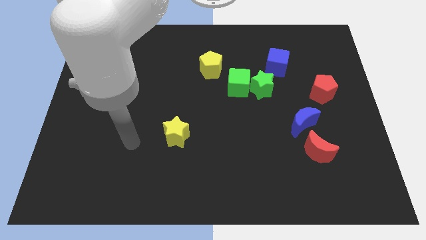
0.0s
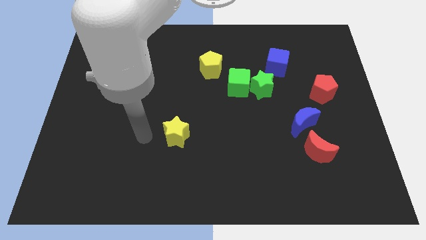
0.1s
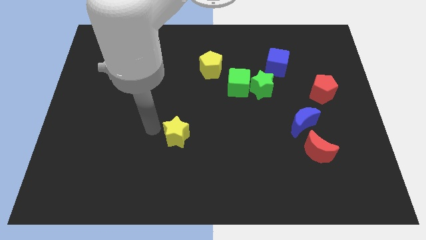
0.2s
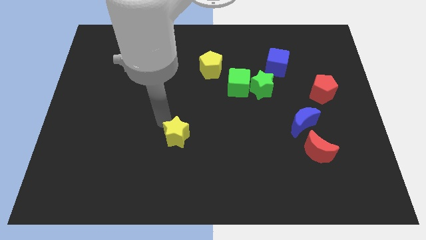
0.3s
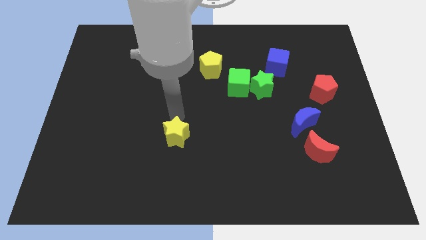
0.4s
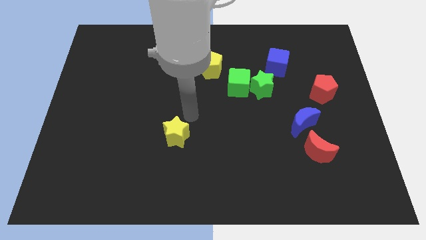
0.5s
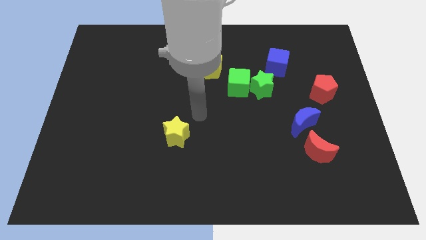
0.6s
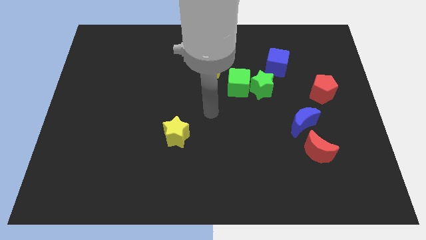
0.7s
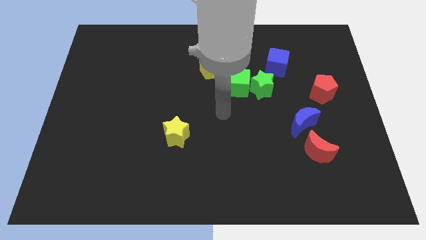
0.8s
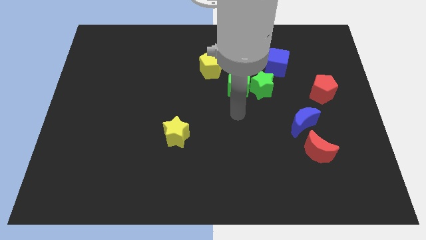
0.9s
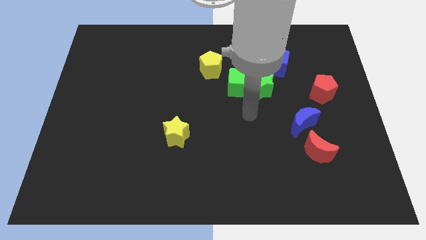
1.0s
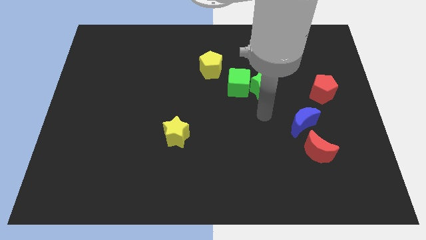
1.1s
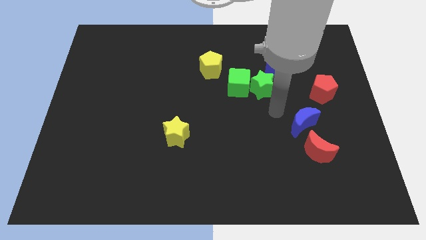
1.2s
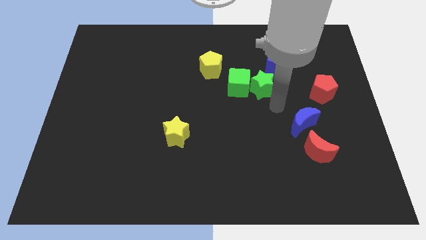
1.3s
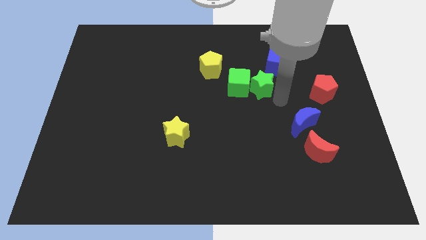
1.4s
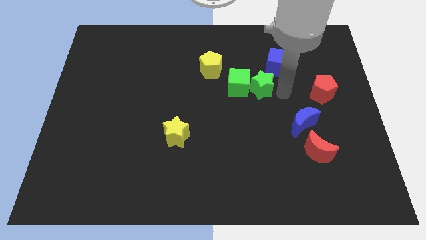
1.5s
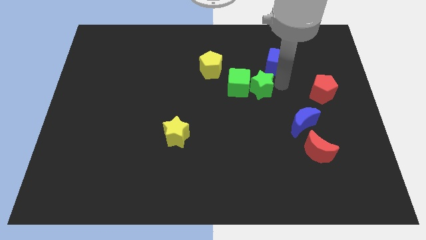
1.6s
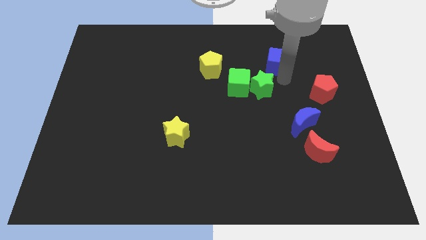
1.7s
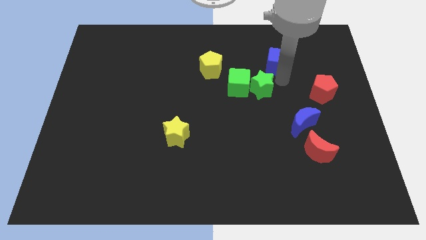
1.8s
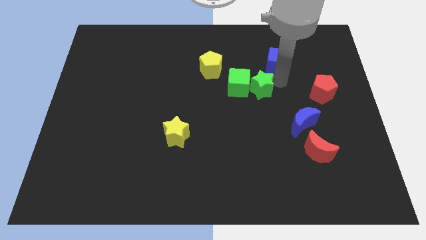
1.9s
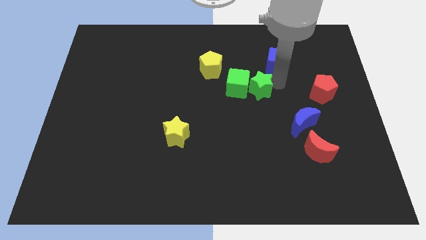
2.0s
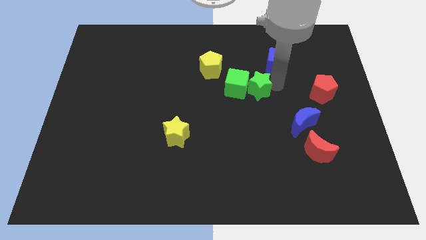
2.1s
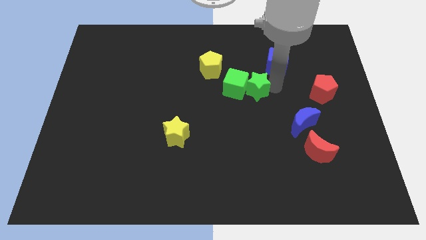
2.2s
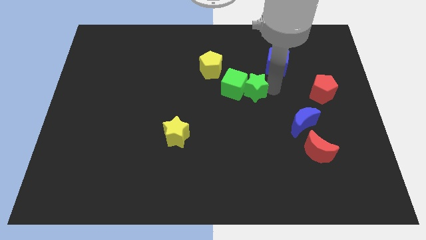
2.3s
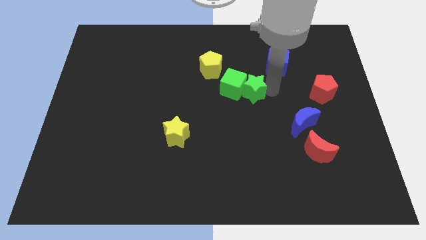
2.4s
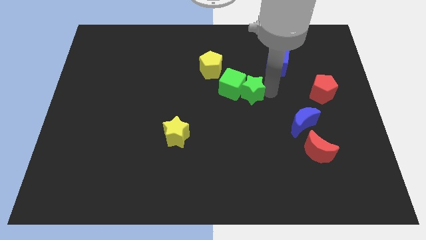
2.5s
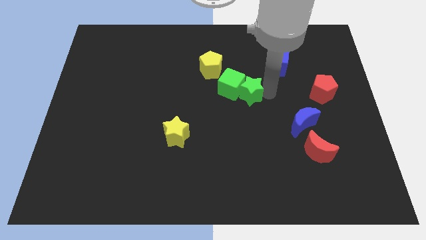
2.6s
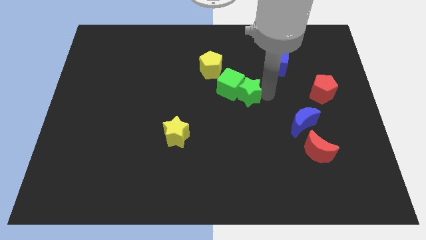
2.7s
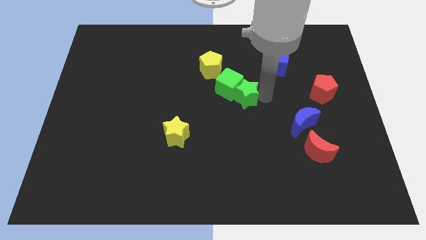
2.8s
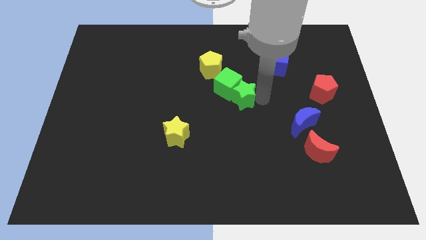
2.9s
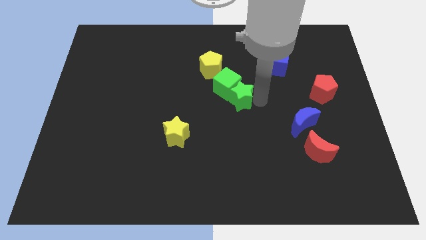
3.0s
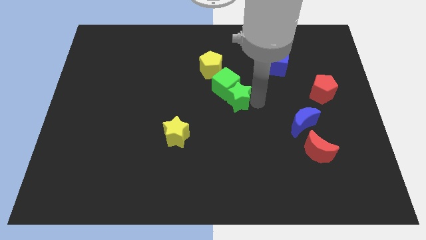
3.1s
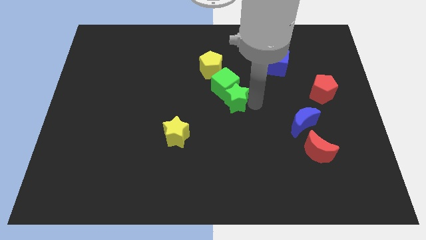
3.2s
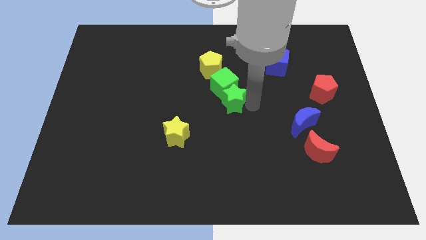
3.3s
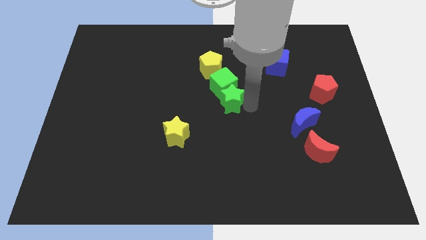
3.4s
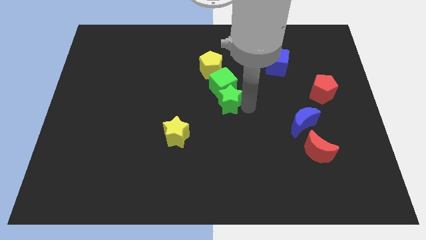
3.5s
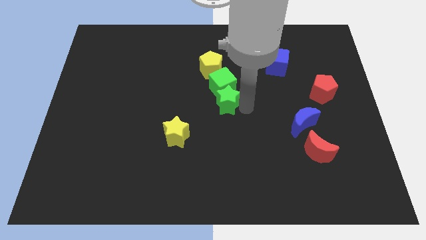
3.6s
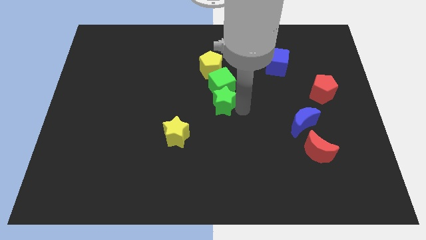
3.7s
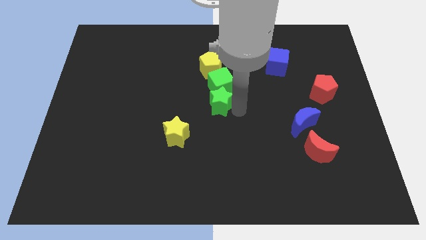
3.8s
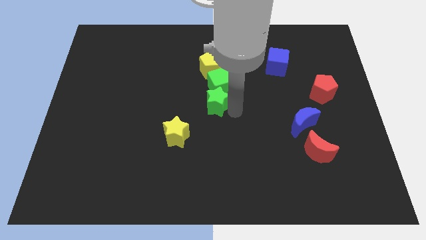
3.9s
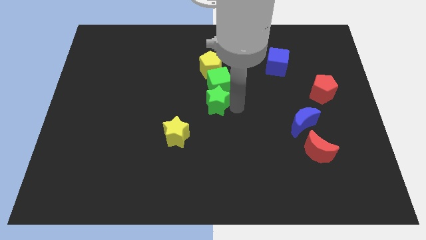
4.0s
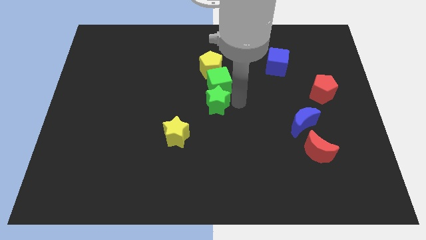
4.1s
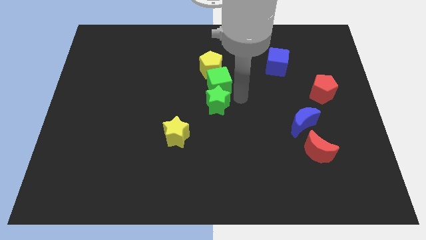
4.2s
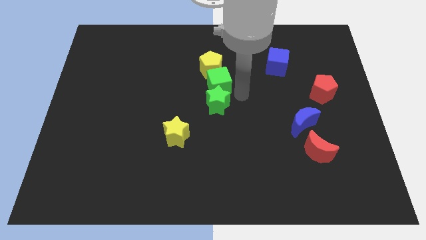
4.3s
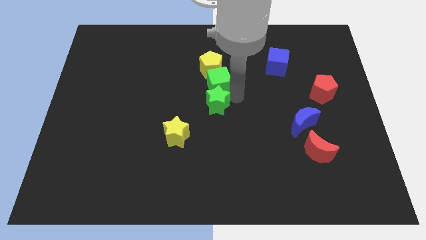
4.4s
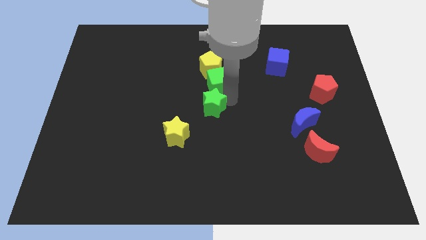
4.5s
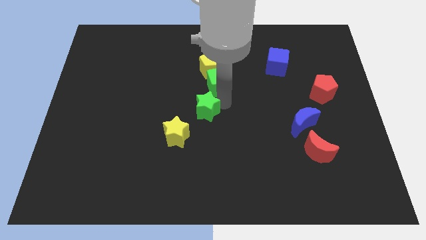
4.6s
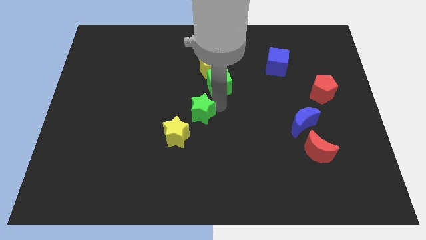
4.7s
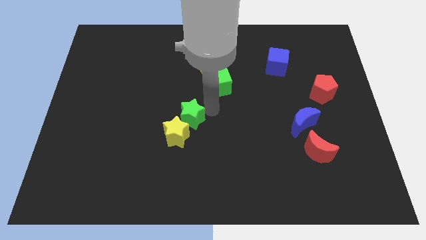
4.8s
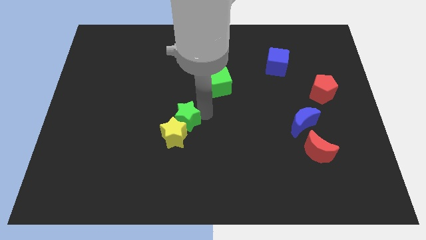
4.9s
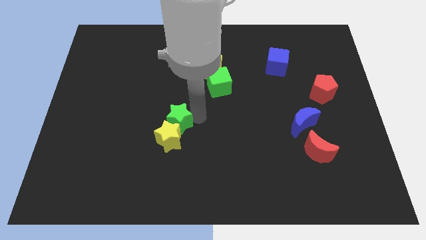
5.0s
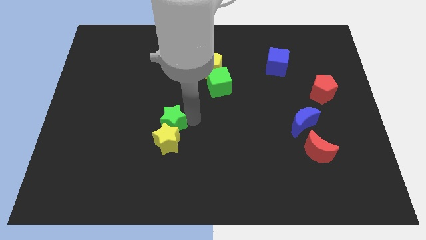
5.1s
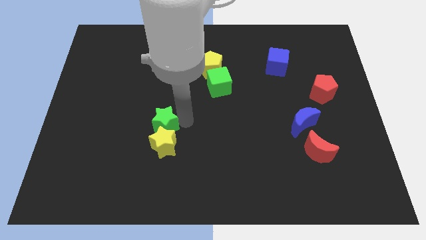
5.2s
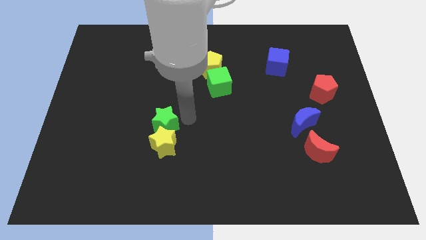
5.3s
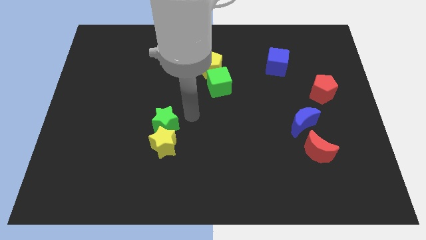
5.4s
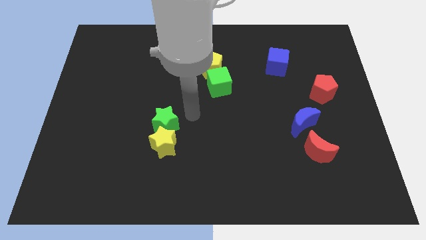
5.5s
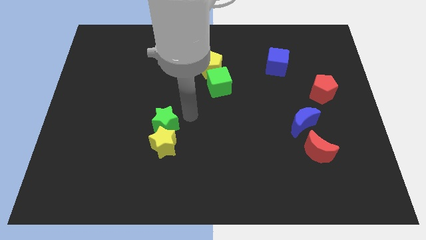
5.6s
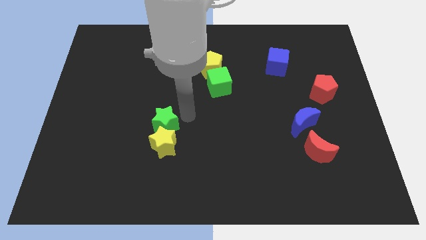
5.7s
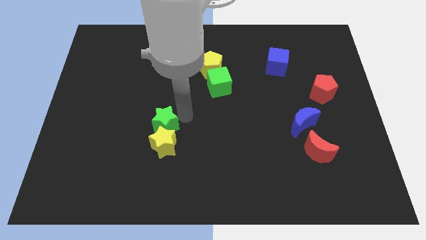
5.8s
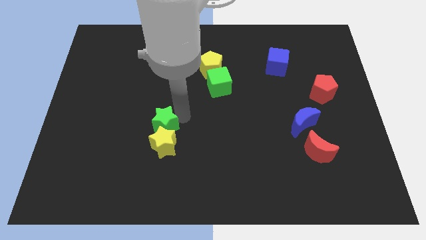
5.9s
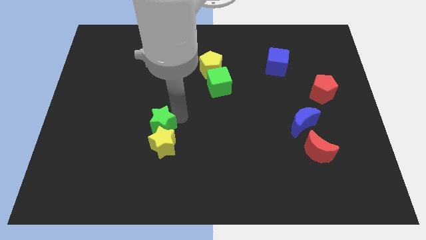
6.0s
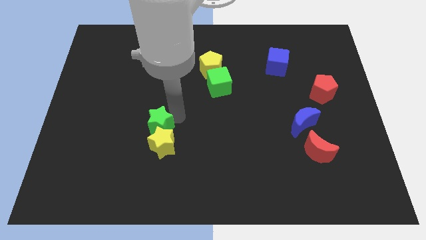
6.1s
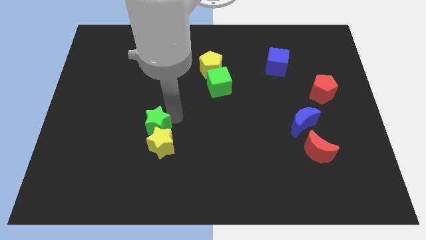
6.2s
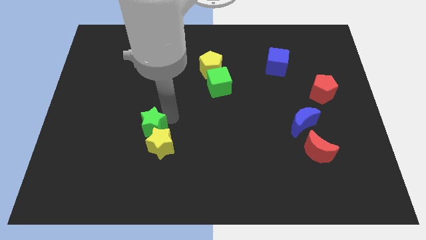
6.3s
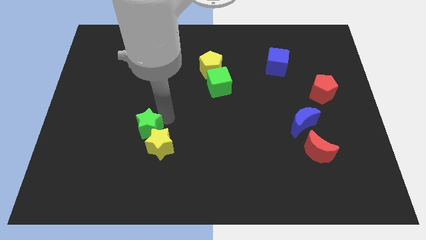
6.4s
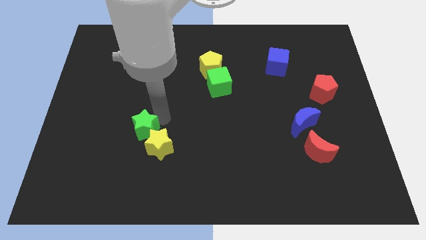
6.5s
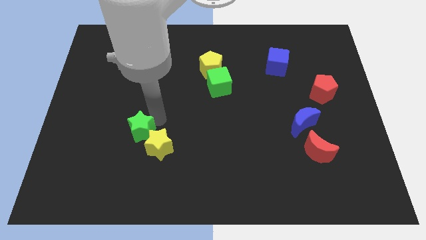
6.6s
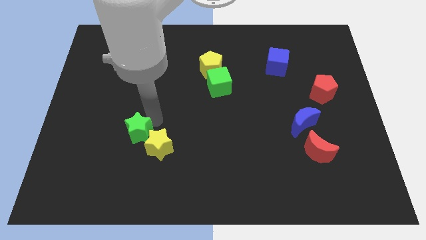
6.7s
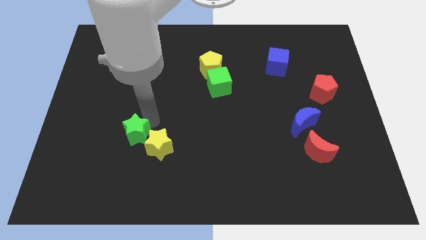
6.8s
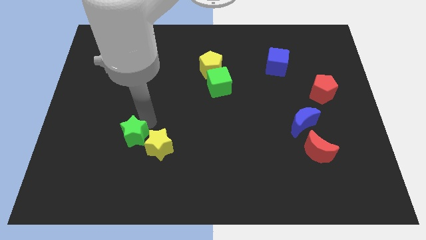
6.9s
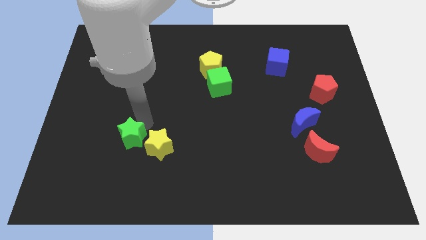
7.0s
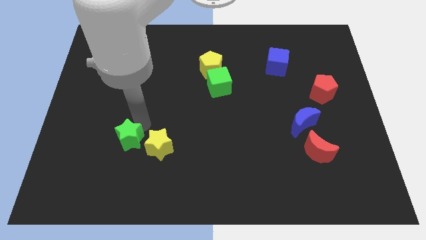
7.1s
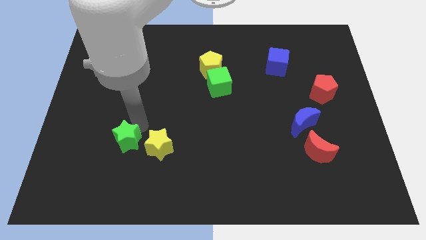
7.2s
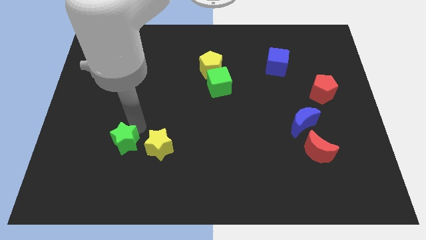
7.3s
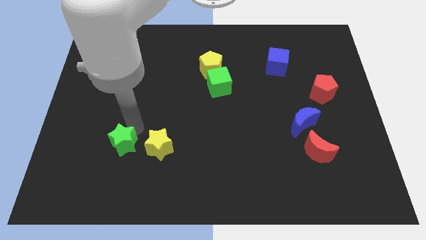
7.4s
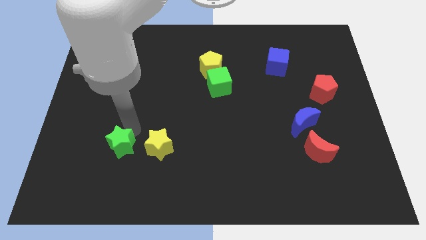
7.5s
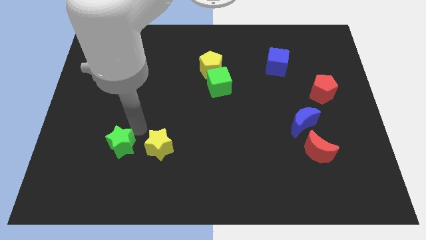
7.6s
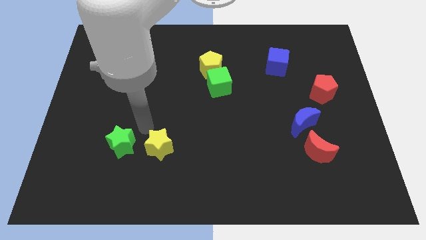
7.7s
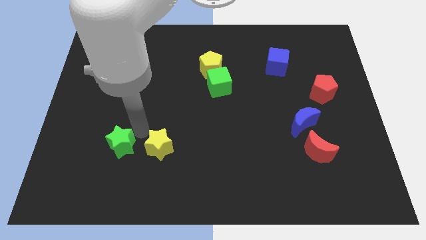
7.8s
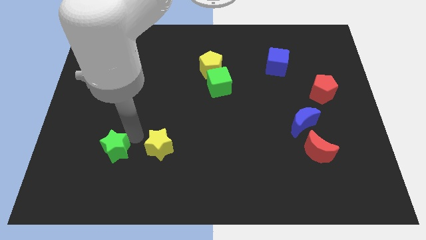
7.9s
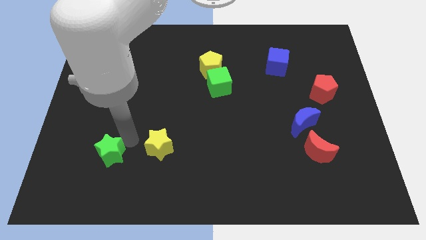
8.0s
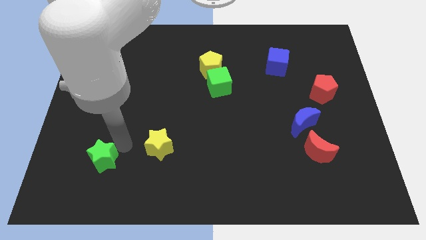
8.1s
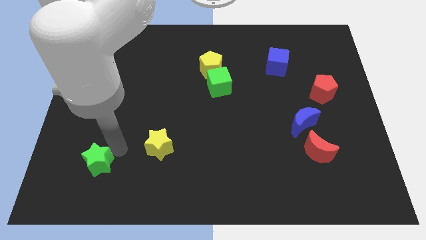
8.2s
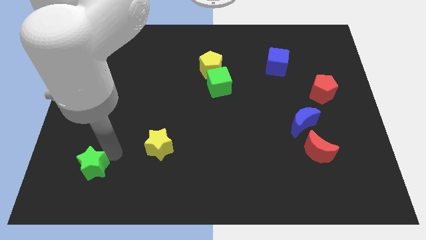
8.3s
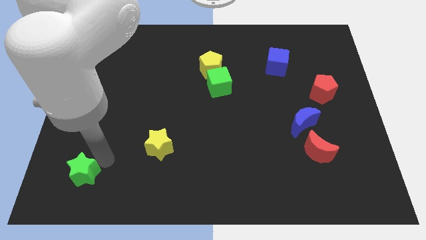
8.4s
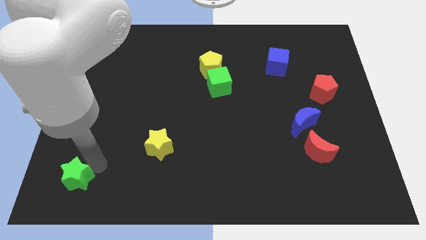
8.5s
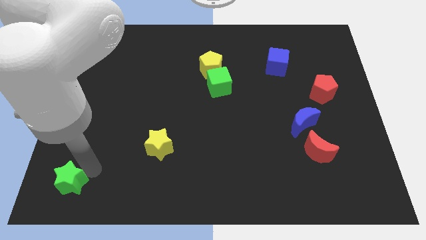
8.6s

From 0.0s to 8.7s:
push the green star to the bottom left of the board
